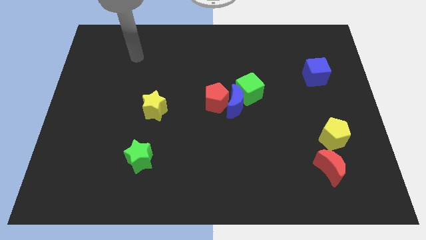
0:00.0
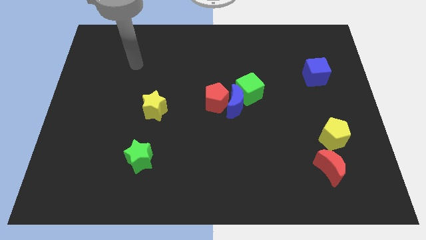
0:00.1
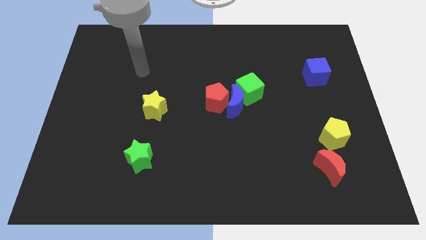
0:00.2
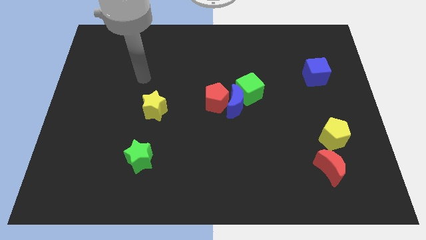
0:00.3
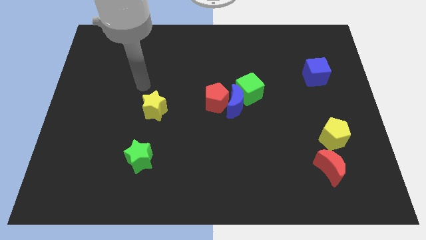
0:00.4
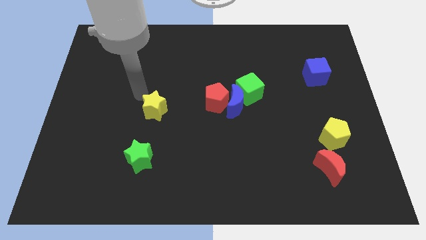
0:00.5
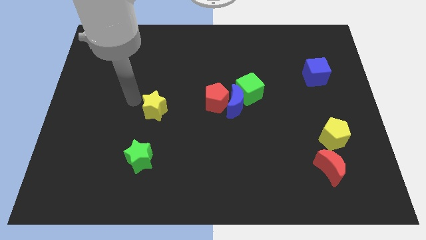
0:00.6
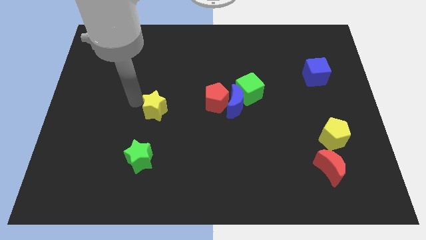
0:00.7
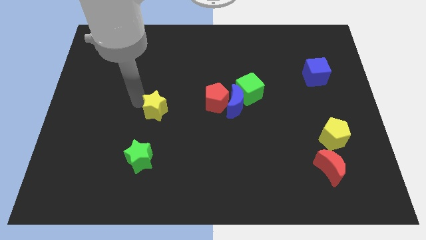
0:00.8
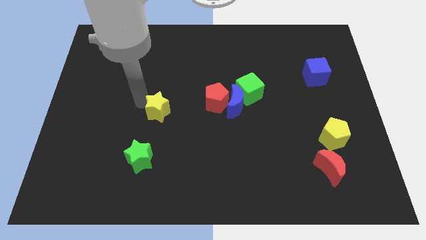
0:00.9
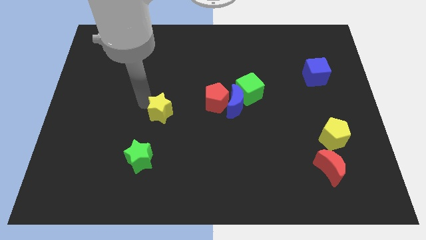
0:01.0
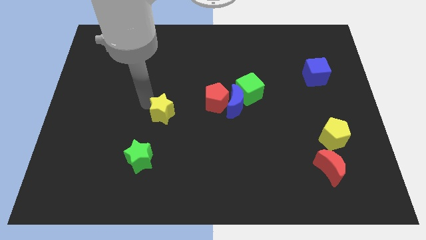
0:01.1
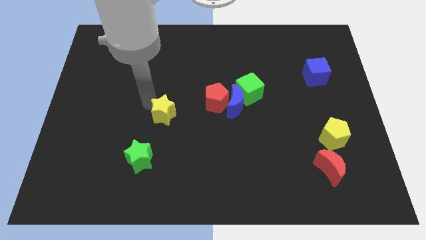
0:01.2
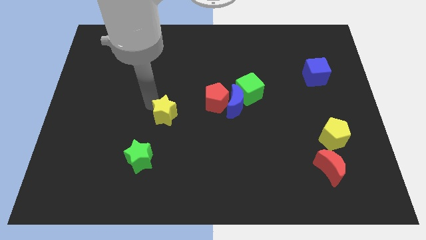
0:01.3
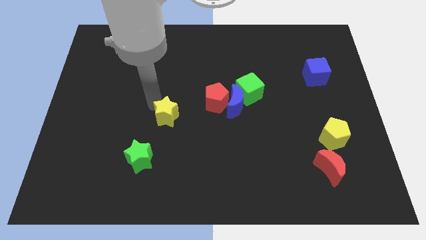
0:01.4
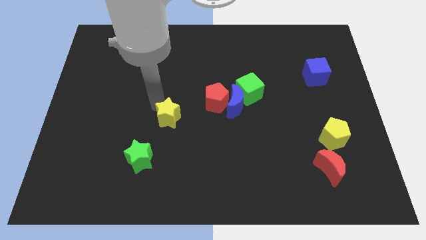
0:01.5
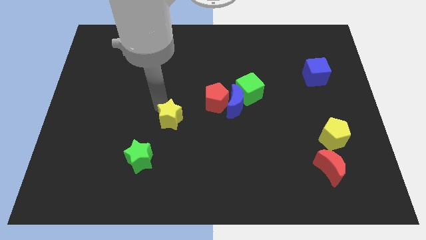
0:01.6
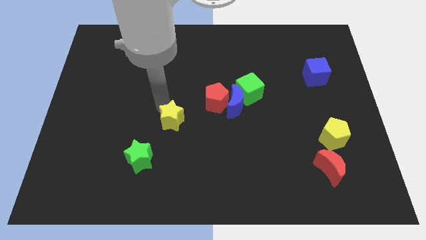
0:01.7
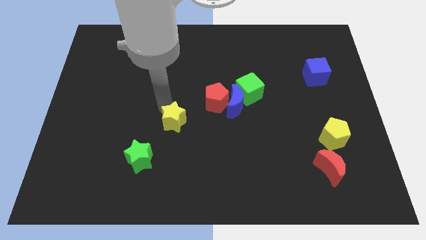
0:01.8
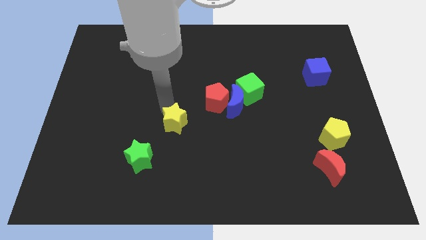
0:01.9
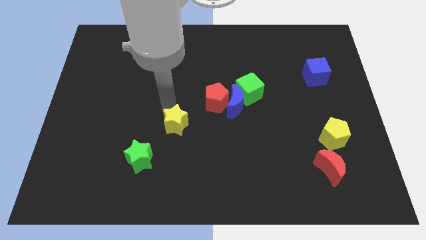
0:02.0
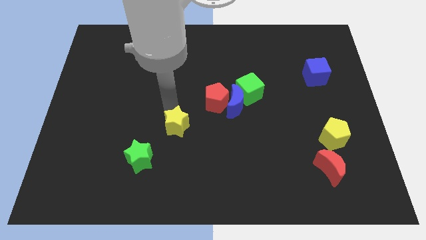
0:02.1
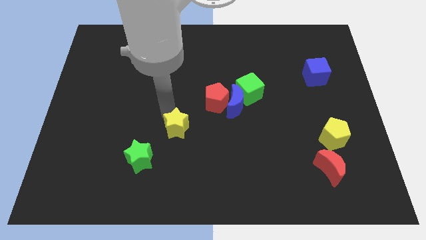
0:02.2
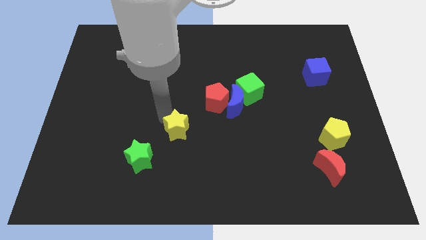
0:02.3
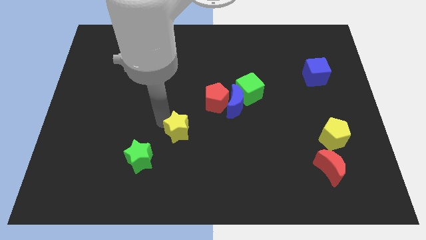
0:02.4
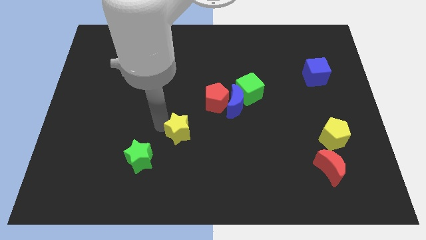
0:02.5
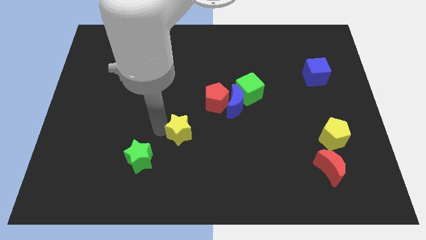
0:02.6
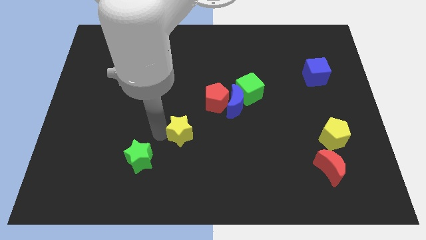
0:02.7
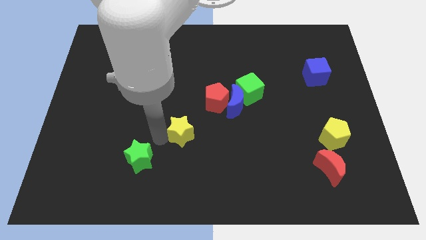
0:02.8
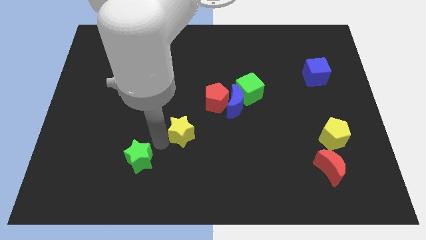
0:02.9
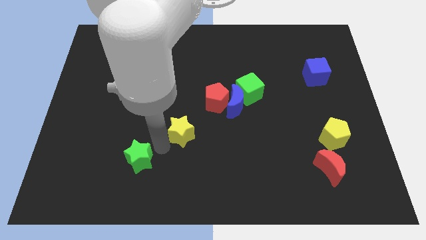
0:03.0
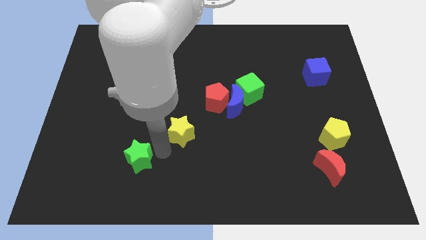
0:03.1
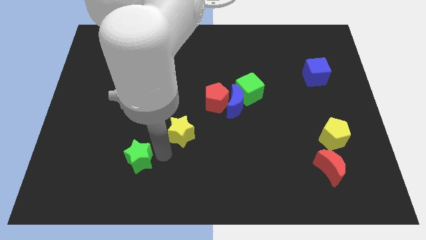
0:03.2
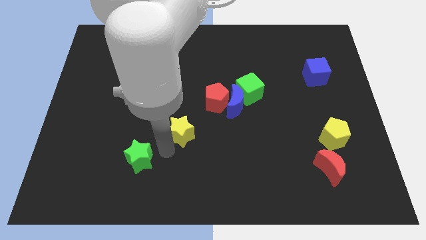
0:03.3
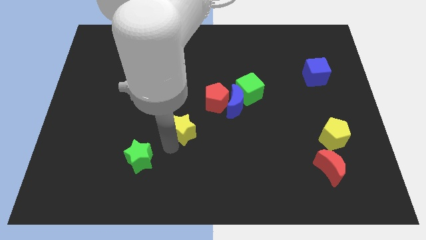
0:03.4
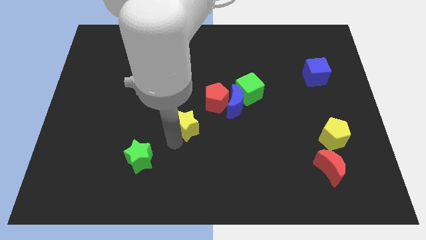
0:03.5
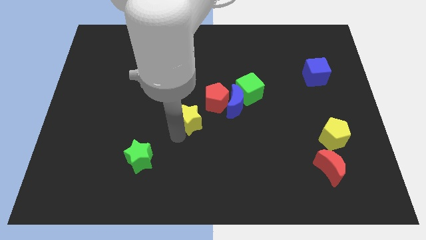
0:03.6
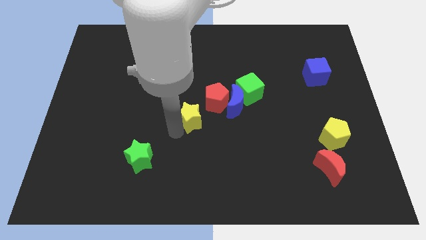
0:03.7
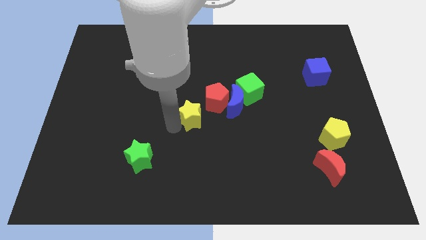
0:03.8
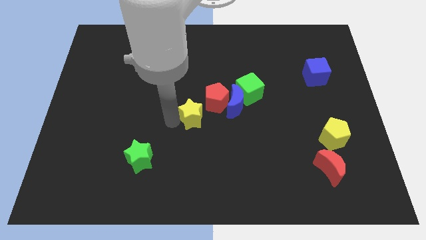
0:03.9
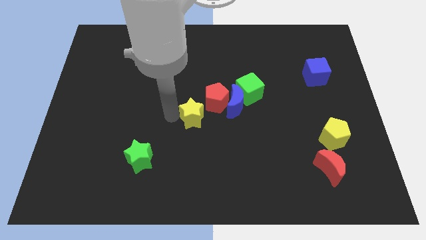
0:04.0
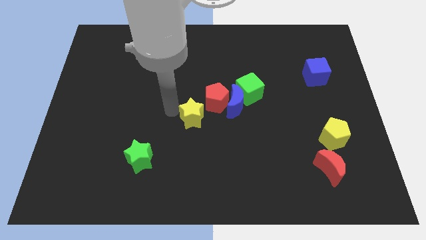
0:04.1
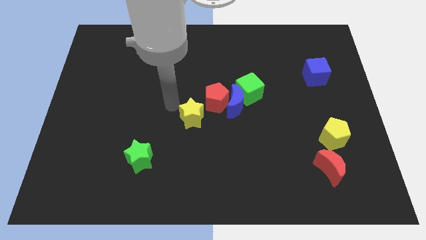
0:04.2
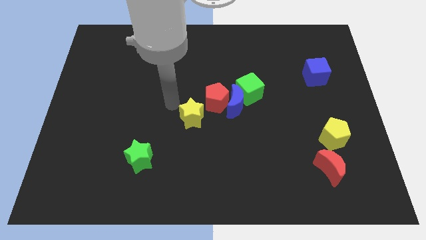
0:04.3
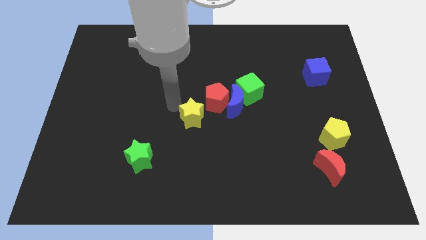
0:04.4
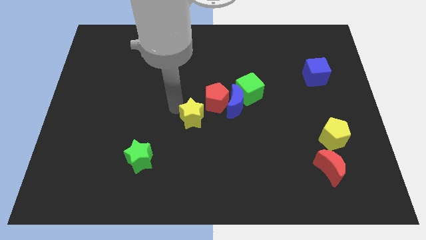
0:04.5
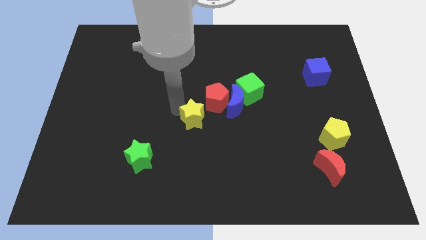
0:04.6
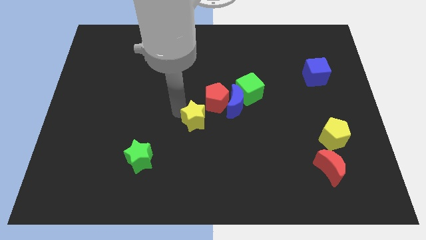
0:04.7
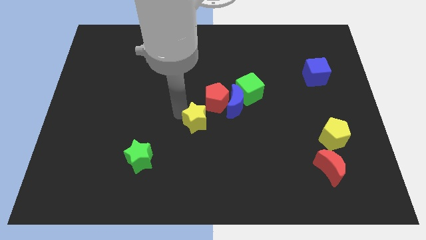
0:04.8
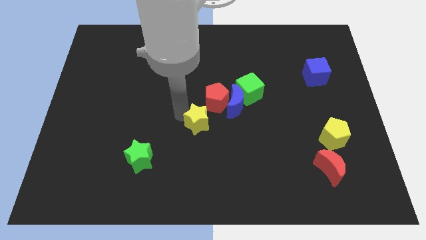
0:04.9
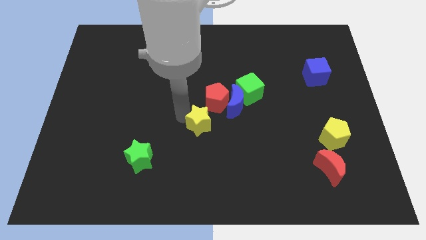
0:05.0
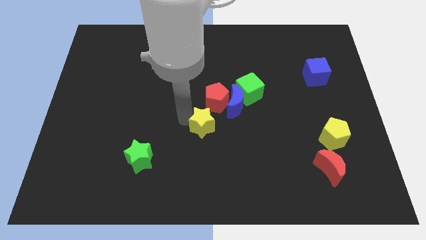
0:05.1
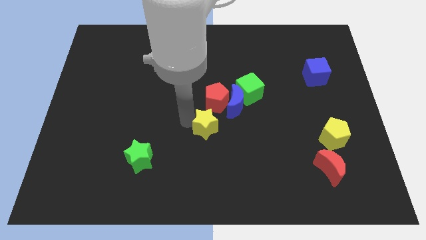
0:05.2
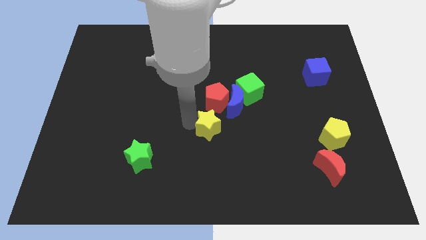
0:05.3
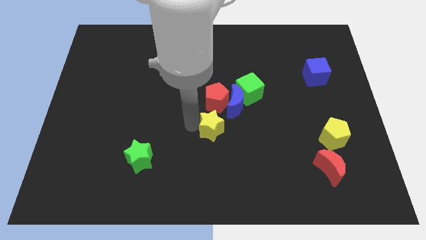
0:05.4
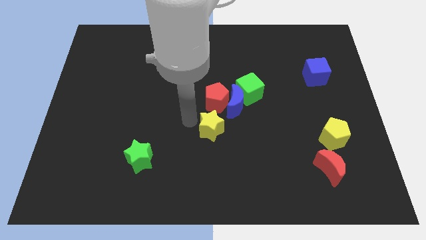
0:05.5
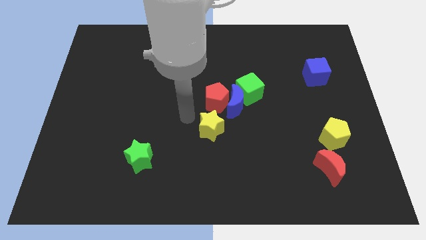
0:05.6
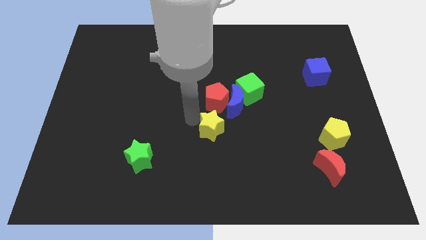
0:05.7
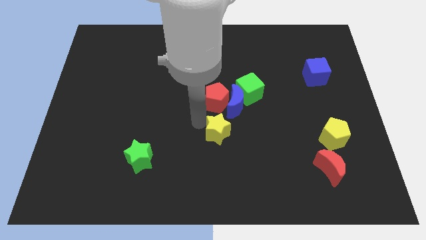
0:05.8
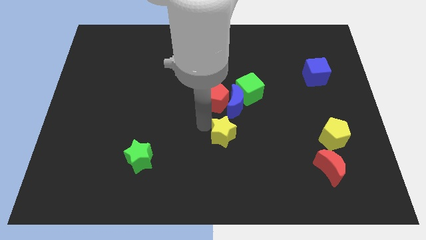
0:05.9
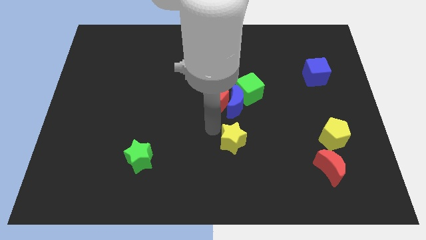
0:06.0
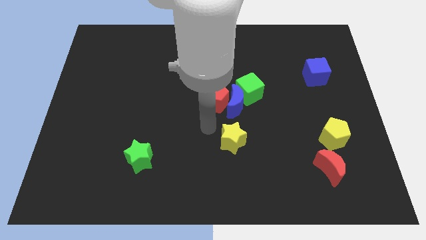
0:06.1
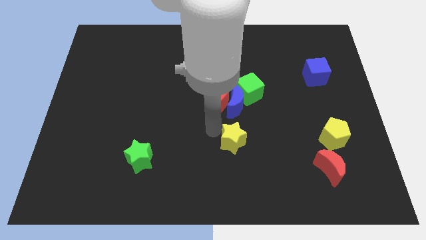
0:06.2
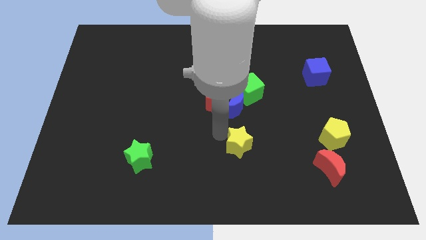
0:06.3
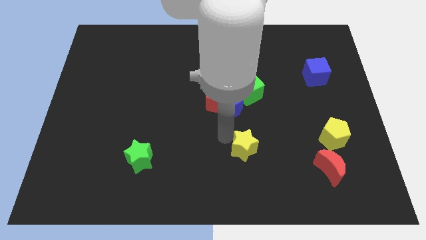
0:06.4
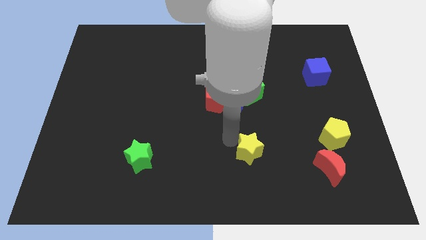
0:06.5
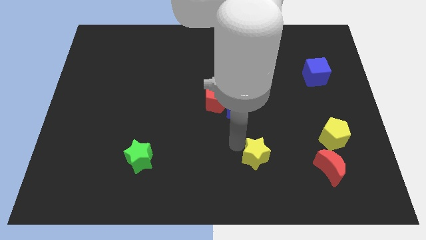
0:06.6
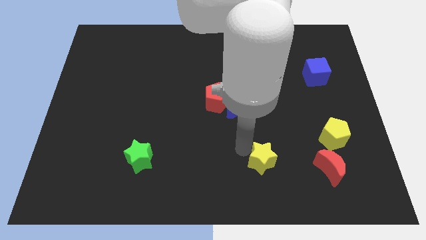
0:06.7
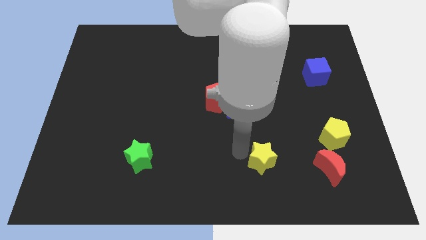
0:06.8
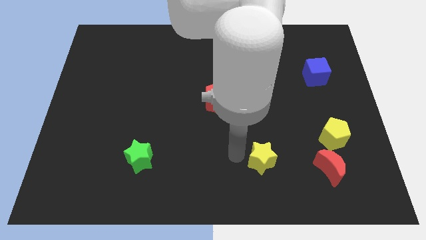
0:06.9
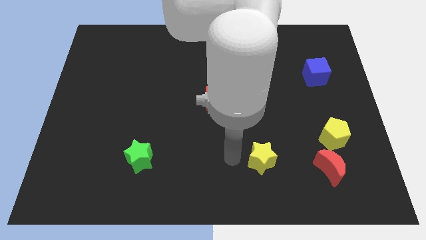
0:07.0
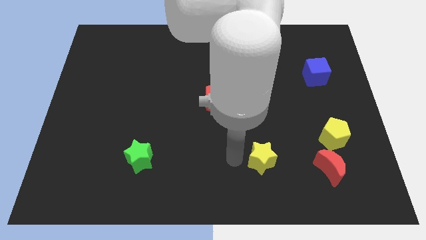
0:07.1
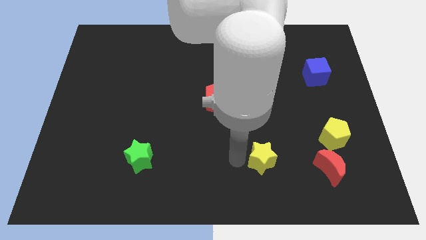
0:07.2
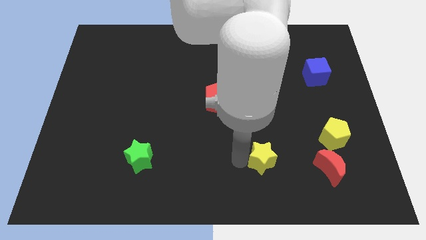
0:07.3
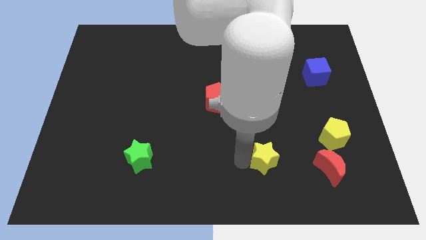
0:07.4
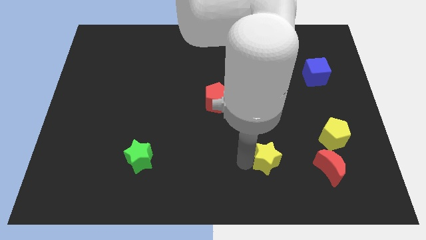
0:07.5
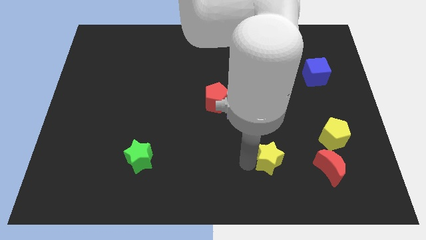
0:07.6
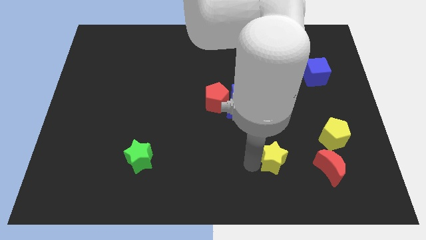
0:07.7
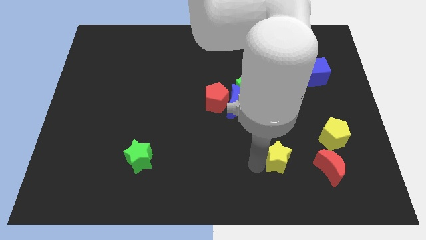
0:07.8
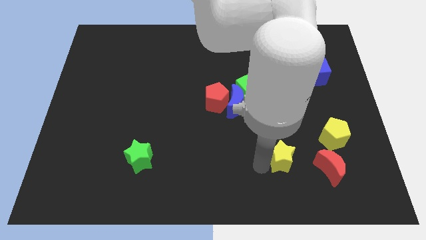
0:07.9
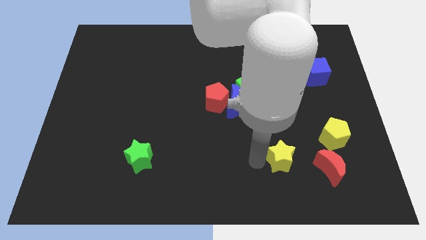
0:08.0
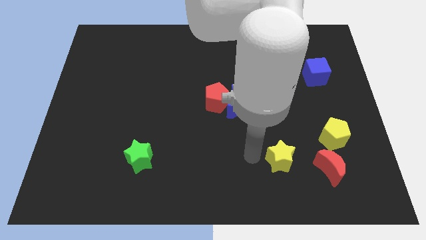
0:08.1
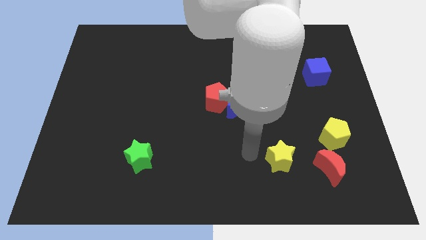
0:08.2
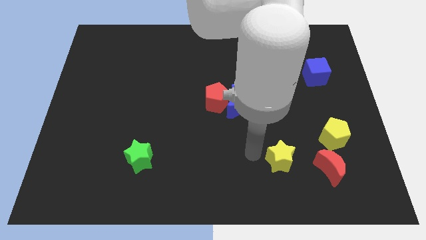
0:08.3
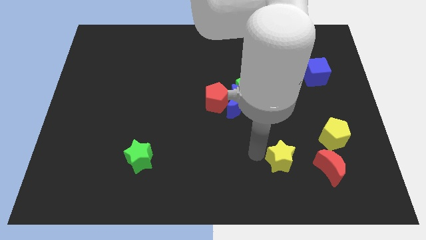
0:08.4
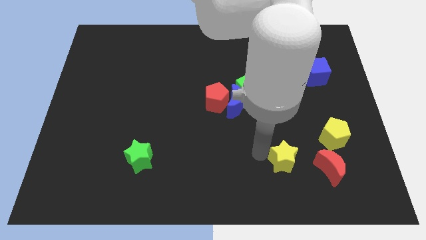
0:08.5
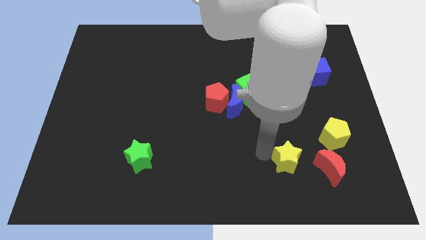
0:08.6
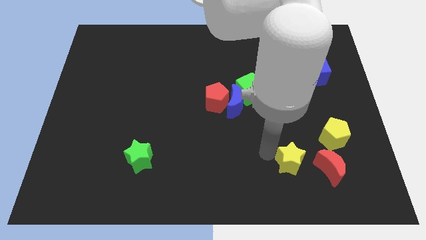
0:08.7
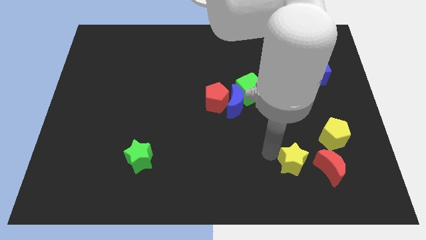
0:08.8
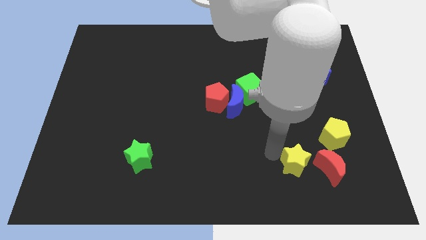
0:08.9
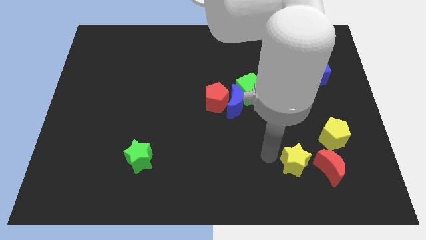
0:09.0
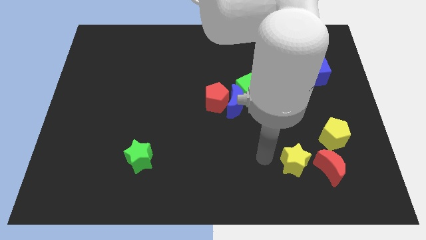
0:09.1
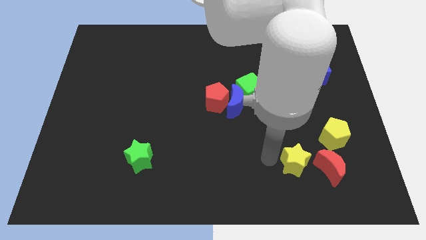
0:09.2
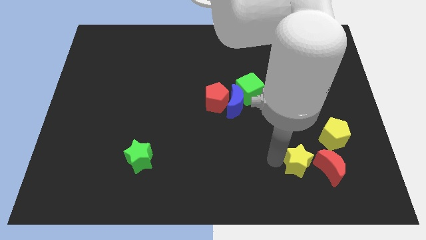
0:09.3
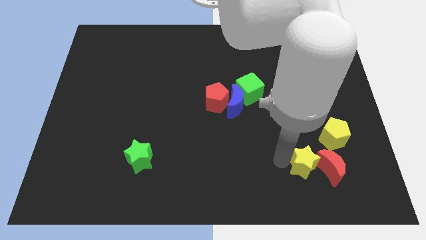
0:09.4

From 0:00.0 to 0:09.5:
put the yellow star towards the red moon
